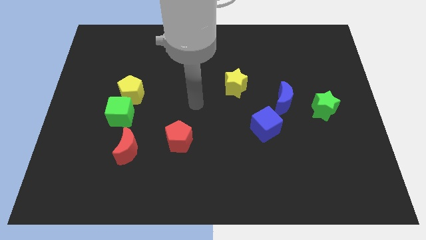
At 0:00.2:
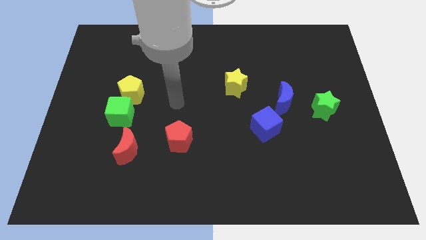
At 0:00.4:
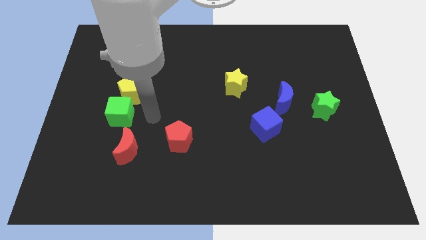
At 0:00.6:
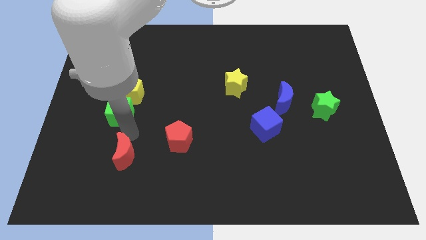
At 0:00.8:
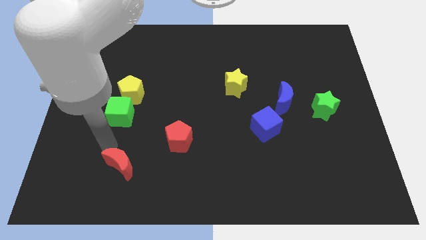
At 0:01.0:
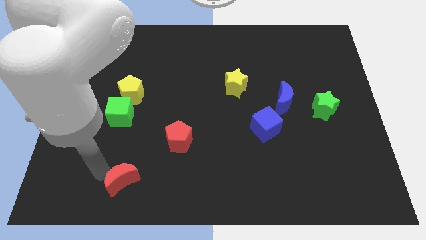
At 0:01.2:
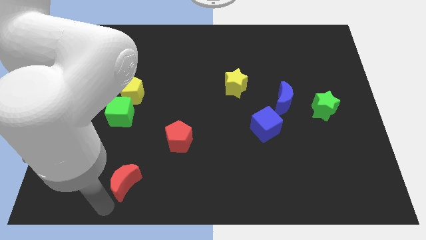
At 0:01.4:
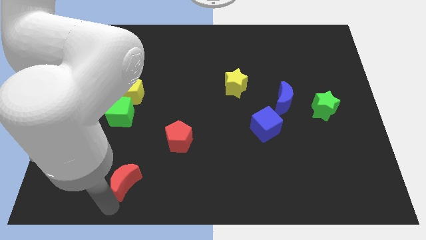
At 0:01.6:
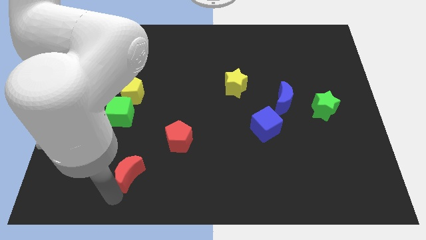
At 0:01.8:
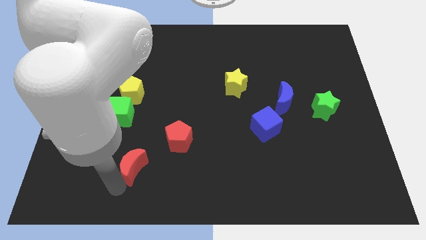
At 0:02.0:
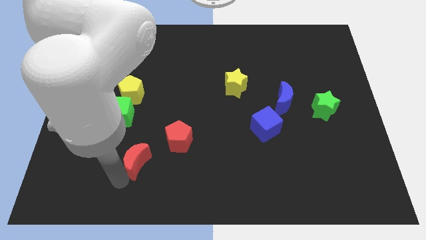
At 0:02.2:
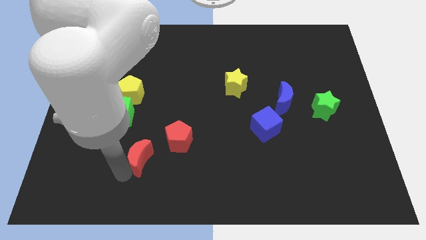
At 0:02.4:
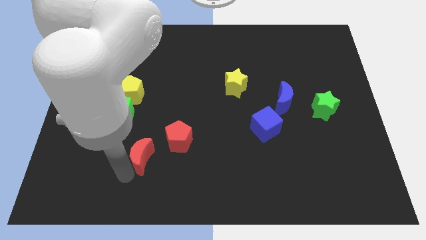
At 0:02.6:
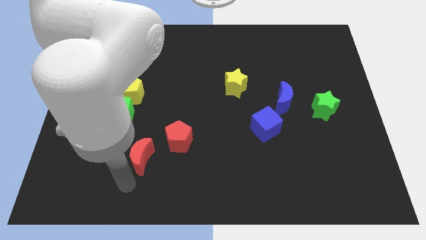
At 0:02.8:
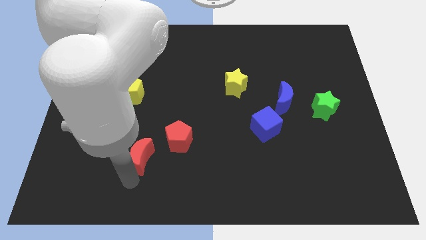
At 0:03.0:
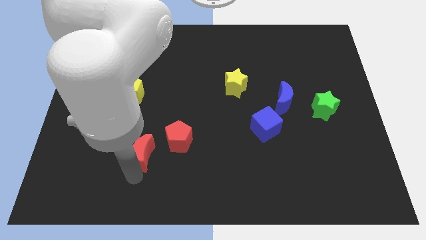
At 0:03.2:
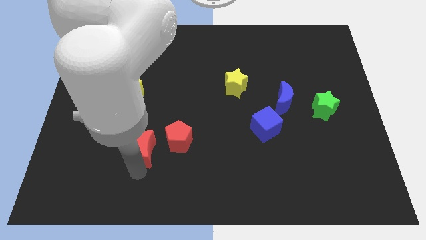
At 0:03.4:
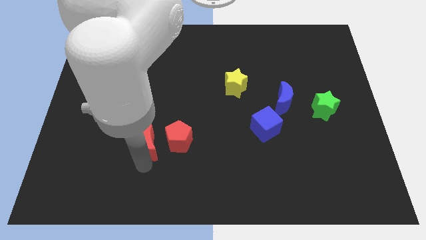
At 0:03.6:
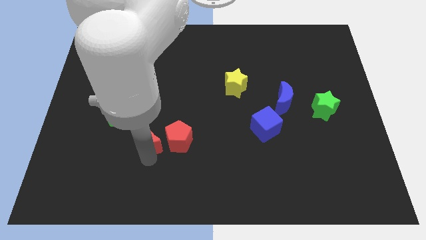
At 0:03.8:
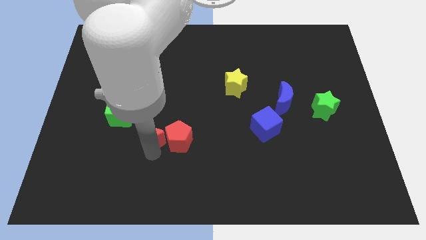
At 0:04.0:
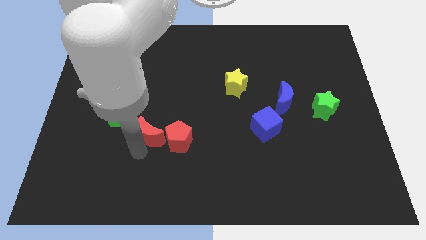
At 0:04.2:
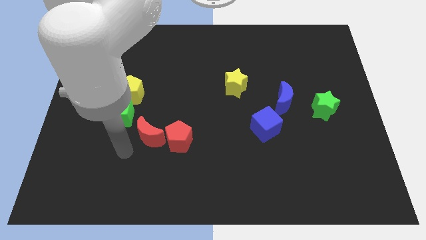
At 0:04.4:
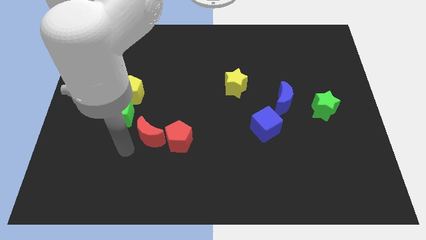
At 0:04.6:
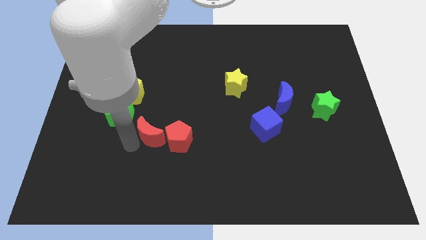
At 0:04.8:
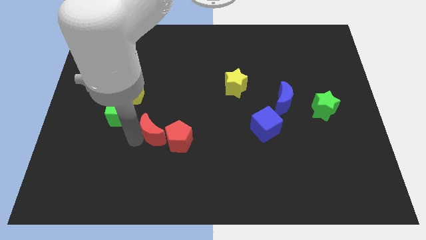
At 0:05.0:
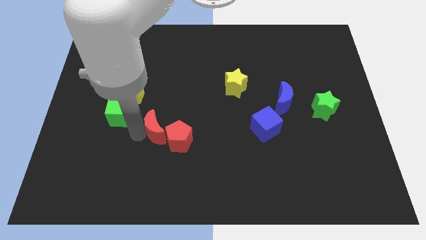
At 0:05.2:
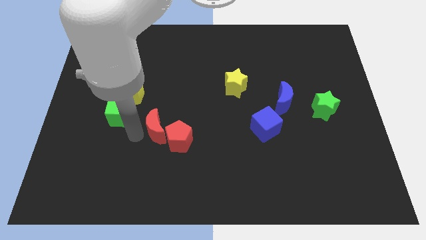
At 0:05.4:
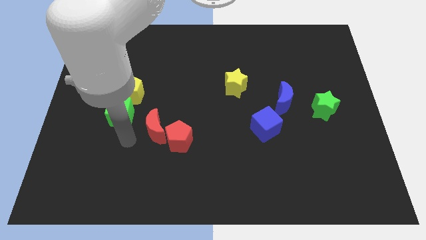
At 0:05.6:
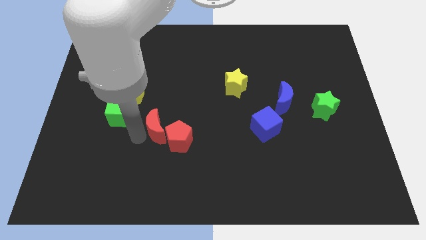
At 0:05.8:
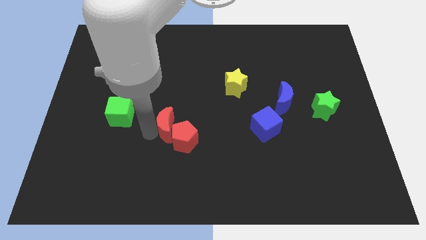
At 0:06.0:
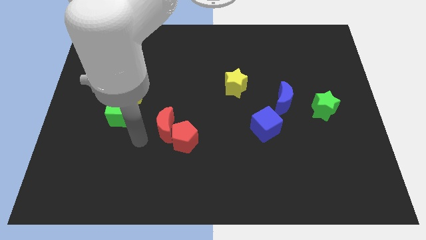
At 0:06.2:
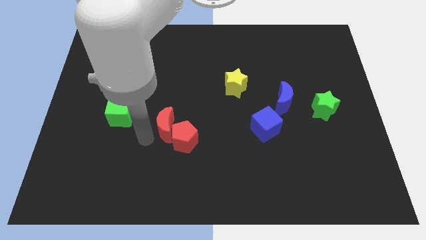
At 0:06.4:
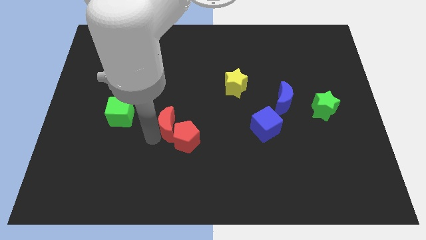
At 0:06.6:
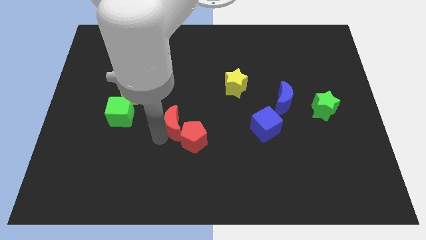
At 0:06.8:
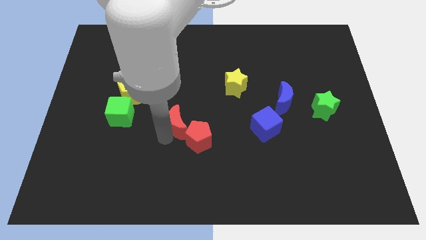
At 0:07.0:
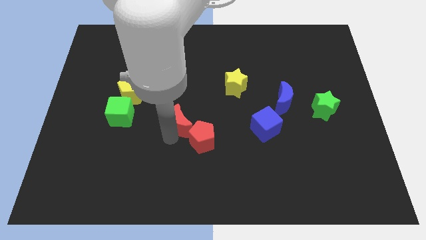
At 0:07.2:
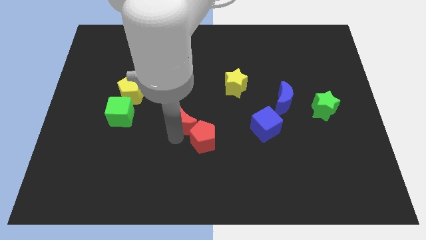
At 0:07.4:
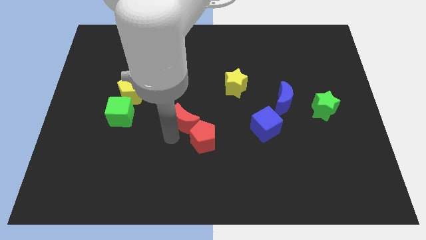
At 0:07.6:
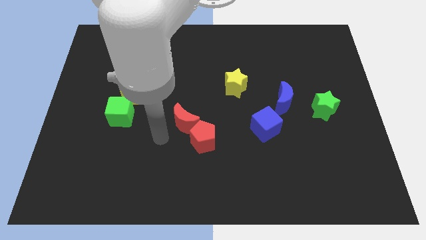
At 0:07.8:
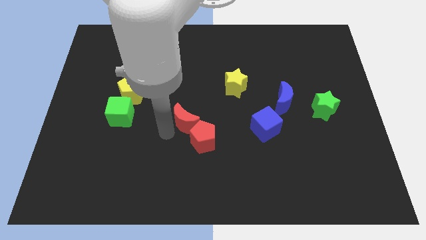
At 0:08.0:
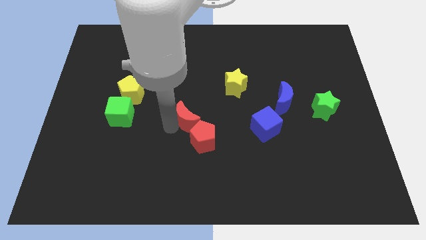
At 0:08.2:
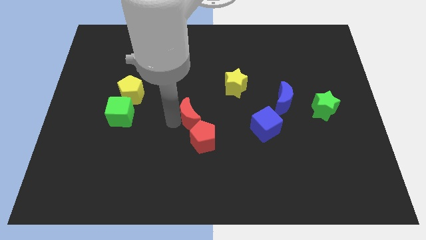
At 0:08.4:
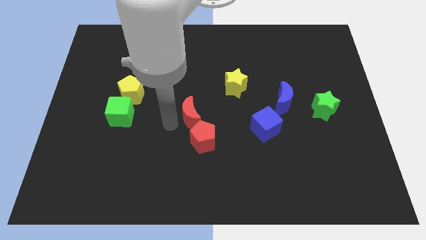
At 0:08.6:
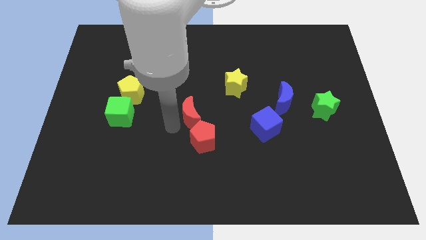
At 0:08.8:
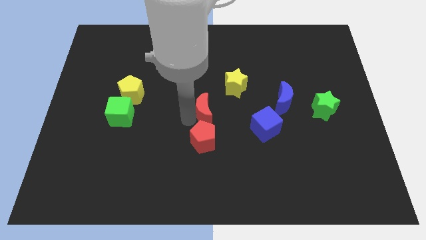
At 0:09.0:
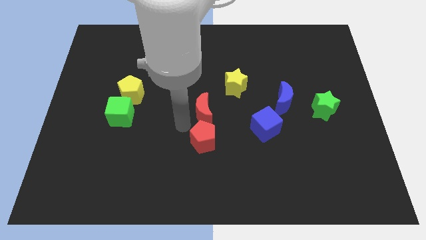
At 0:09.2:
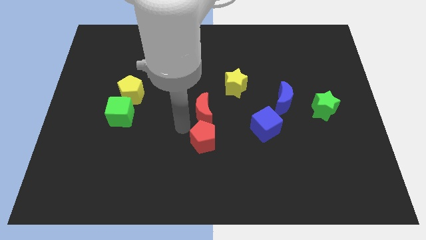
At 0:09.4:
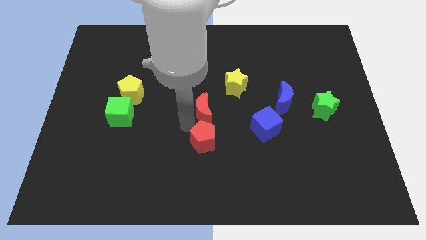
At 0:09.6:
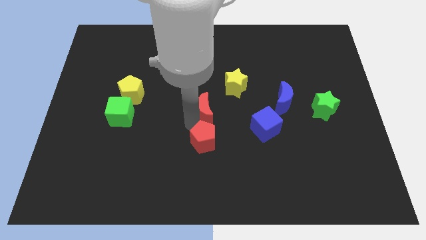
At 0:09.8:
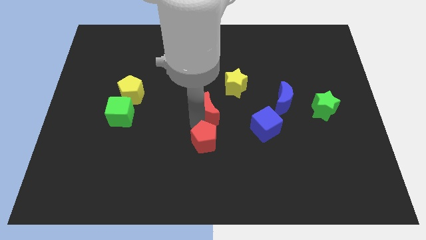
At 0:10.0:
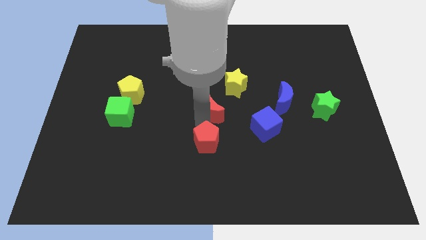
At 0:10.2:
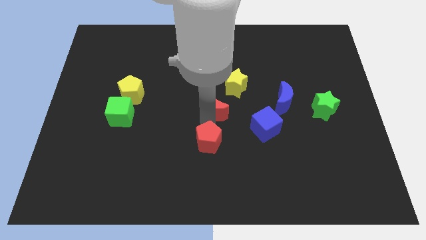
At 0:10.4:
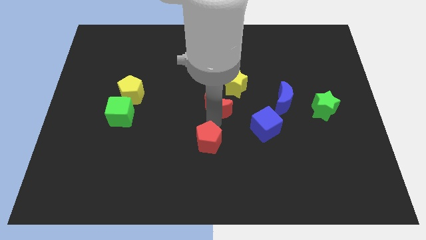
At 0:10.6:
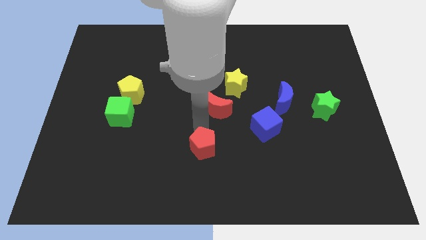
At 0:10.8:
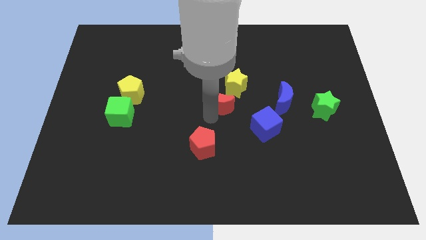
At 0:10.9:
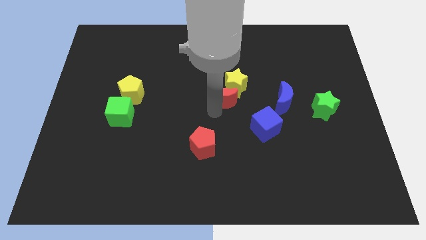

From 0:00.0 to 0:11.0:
slide the red moon to the yellow star

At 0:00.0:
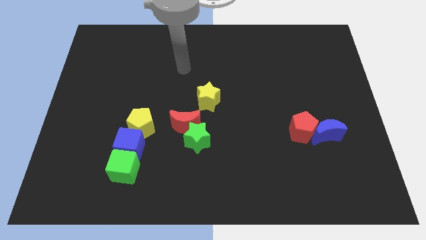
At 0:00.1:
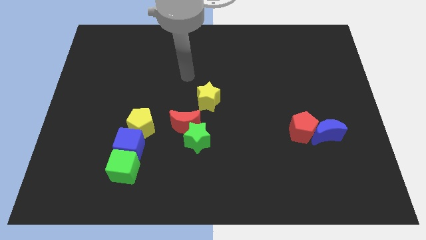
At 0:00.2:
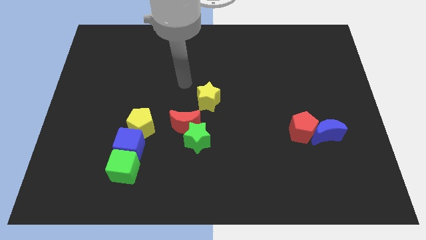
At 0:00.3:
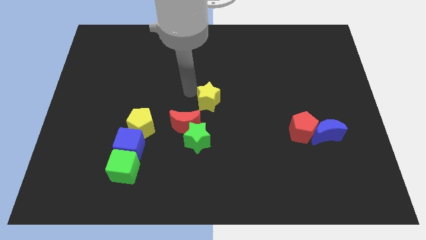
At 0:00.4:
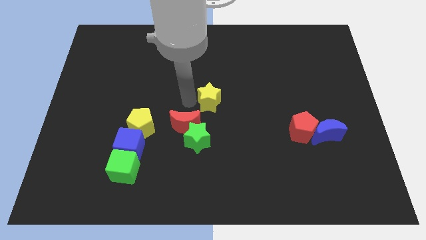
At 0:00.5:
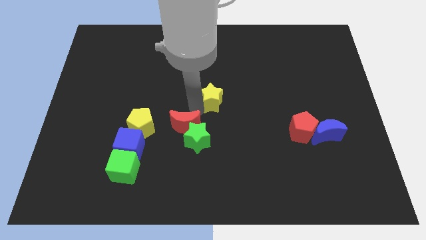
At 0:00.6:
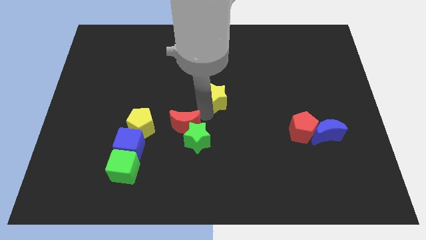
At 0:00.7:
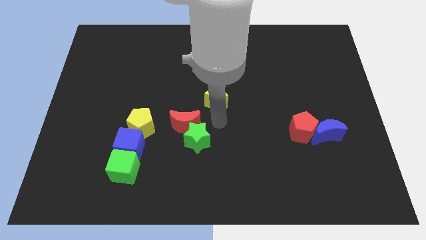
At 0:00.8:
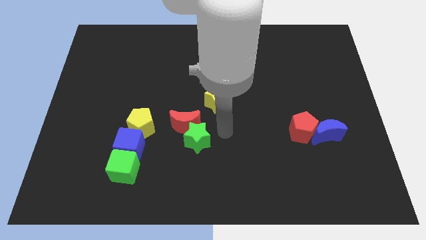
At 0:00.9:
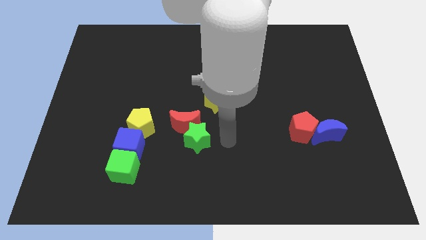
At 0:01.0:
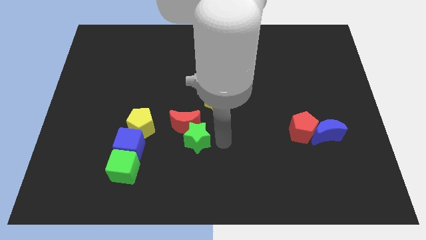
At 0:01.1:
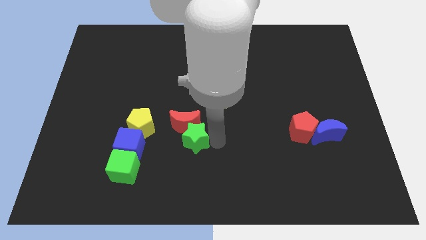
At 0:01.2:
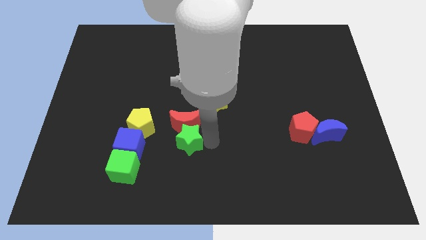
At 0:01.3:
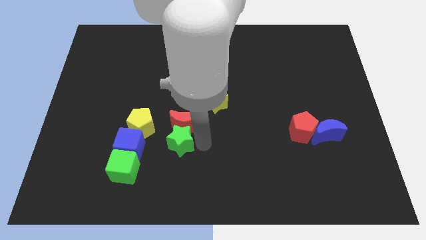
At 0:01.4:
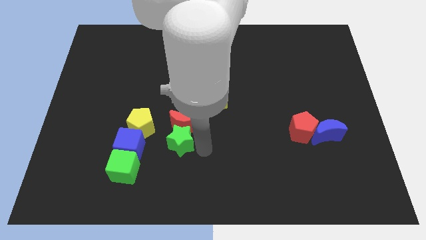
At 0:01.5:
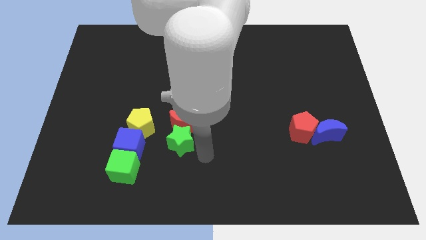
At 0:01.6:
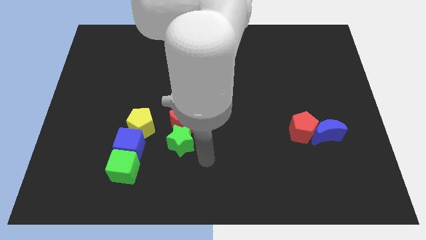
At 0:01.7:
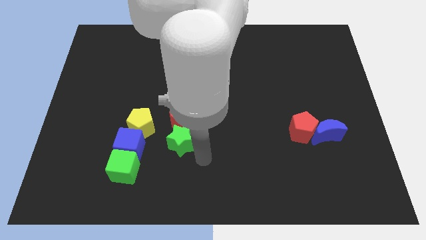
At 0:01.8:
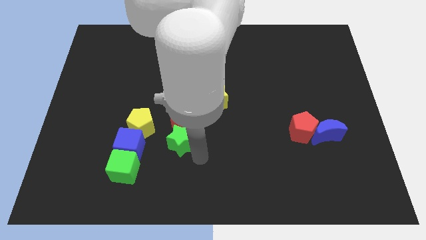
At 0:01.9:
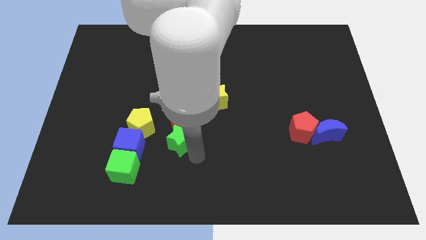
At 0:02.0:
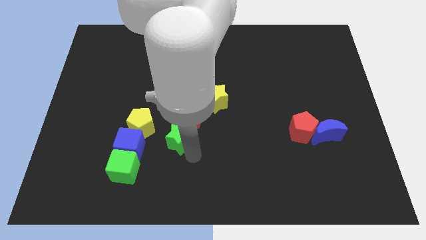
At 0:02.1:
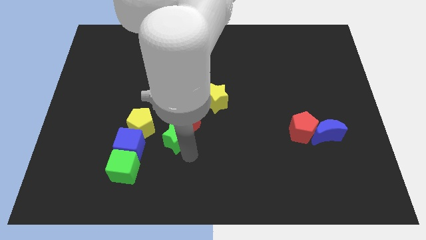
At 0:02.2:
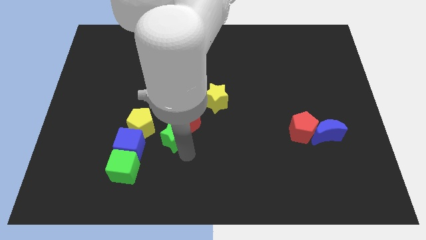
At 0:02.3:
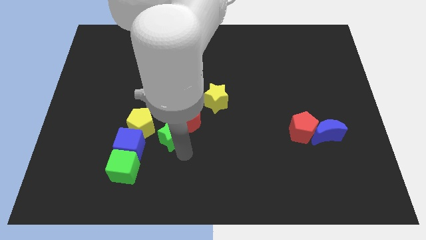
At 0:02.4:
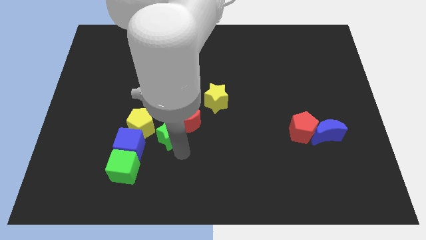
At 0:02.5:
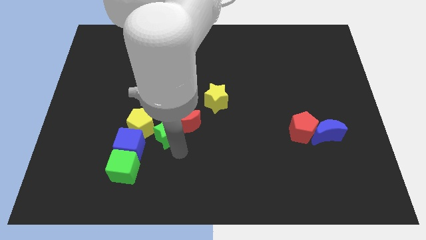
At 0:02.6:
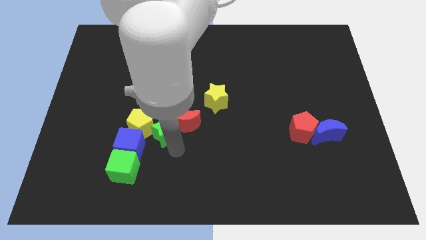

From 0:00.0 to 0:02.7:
slide the green star close to the yellow pentagon
